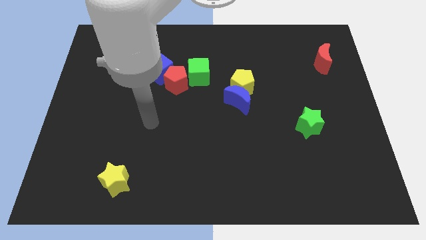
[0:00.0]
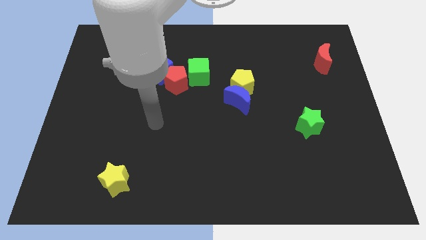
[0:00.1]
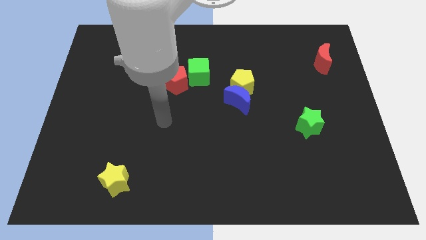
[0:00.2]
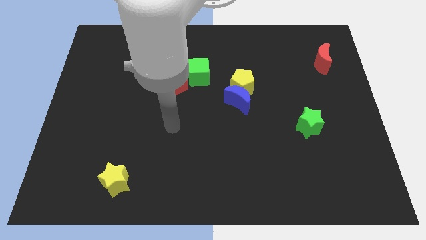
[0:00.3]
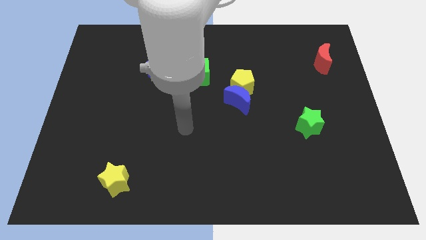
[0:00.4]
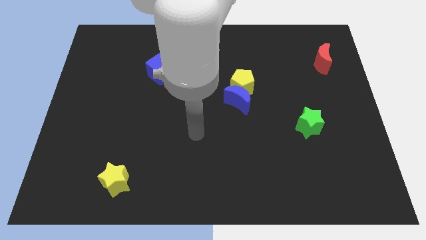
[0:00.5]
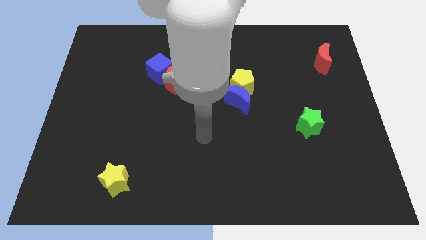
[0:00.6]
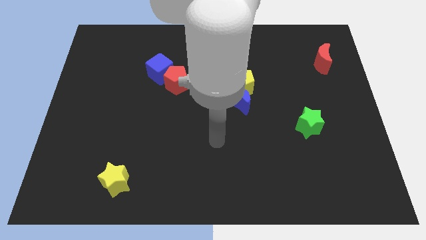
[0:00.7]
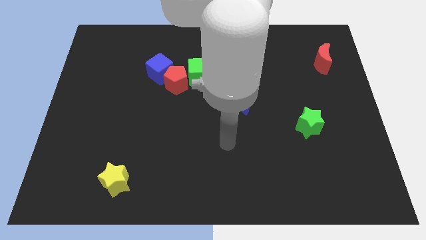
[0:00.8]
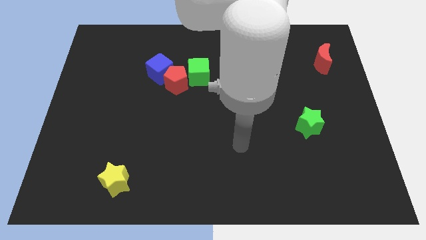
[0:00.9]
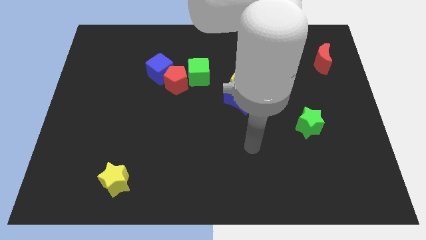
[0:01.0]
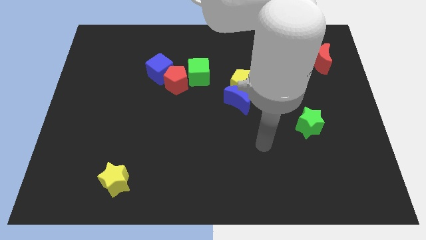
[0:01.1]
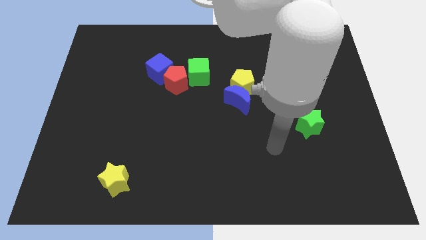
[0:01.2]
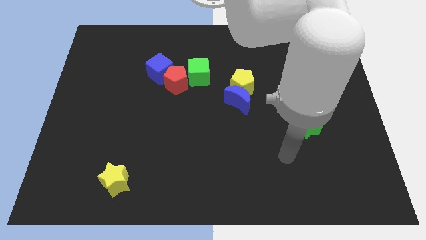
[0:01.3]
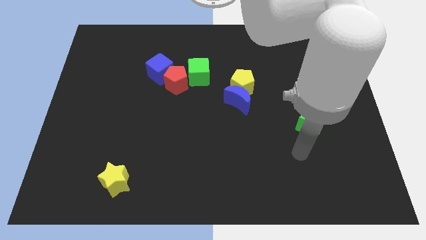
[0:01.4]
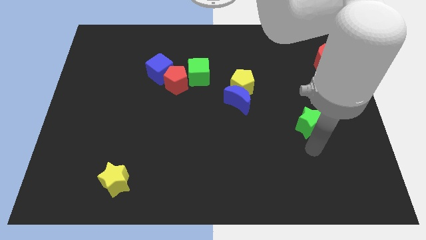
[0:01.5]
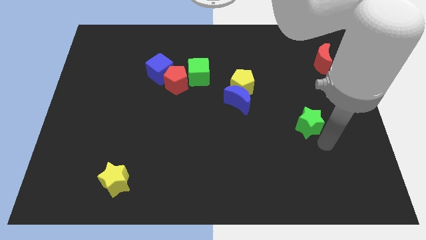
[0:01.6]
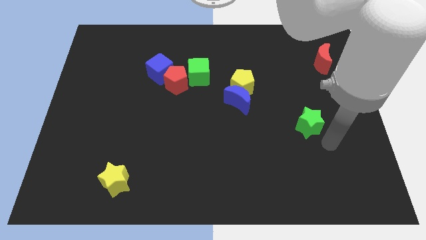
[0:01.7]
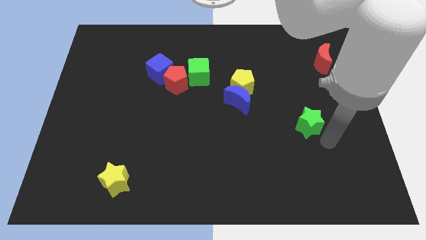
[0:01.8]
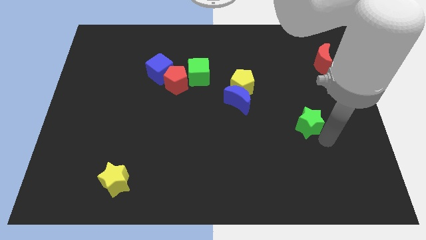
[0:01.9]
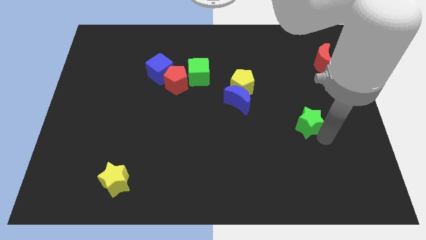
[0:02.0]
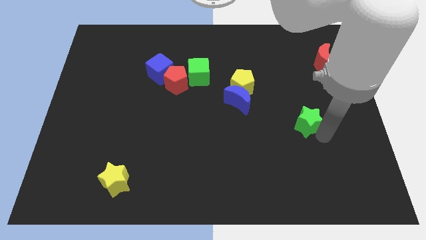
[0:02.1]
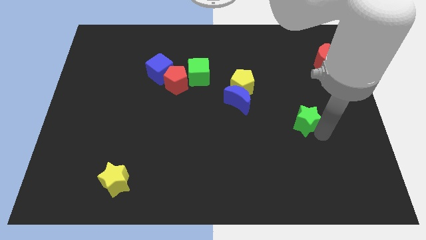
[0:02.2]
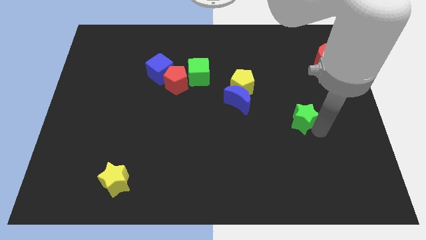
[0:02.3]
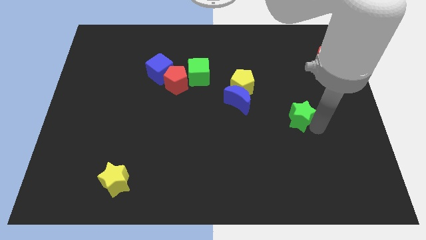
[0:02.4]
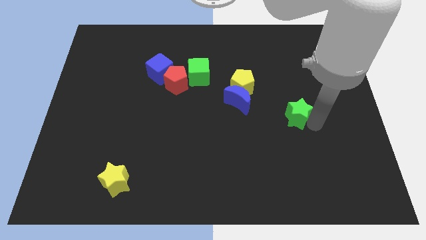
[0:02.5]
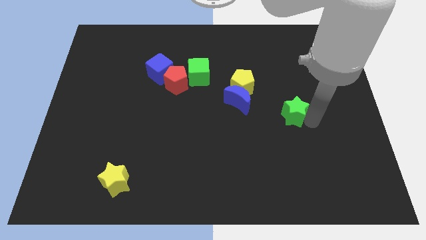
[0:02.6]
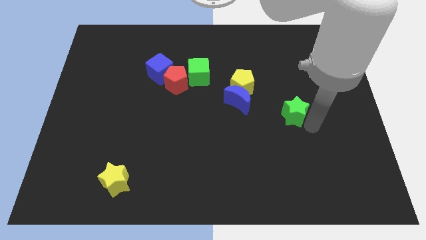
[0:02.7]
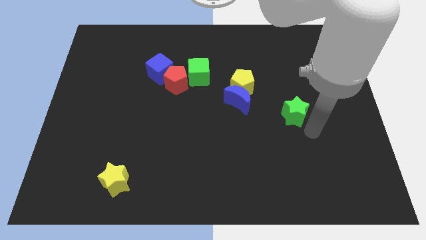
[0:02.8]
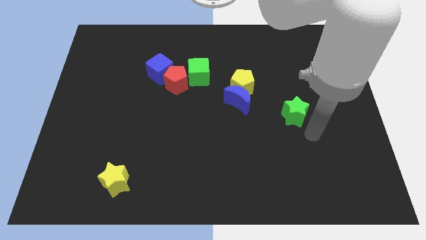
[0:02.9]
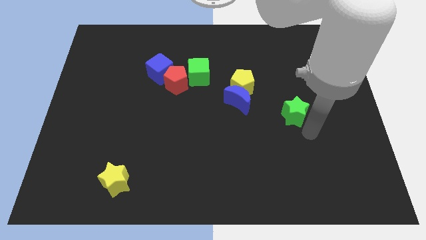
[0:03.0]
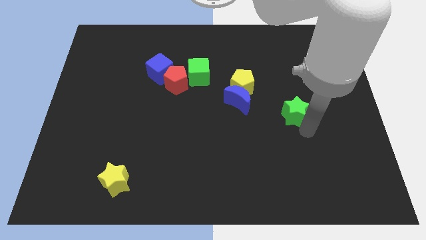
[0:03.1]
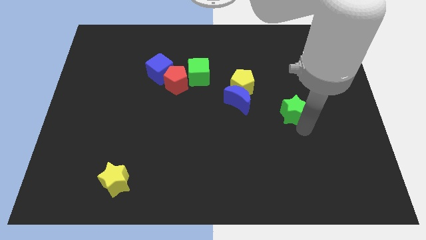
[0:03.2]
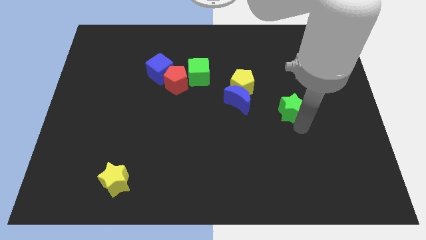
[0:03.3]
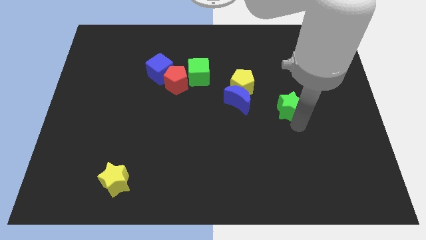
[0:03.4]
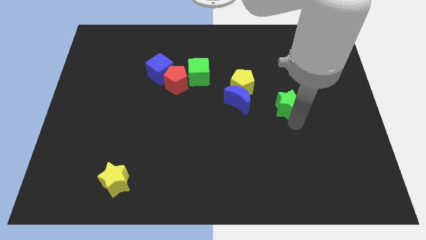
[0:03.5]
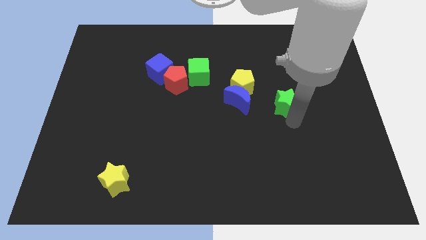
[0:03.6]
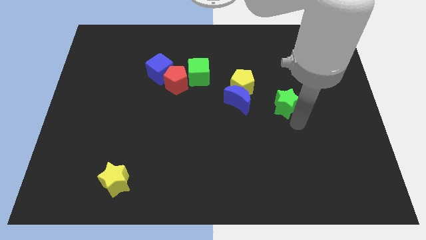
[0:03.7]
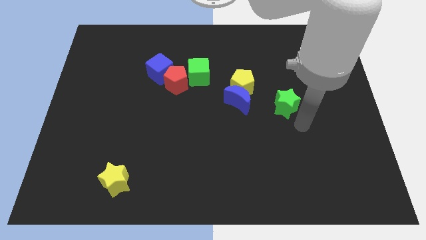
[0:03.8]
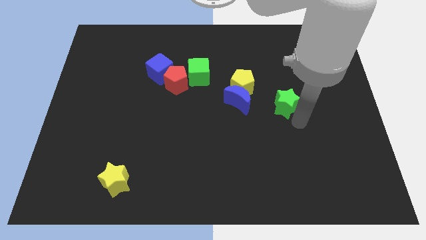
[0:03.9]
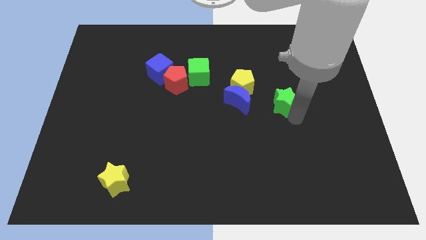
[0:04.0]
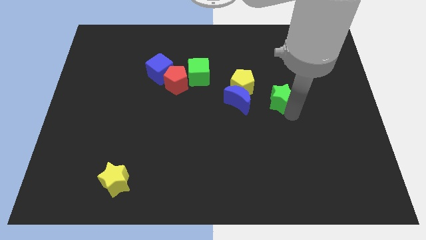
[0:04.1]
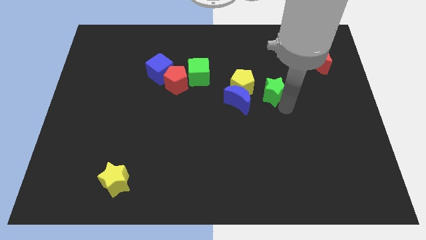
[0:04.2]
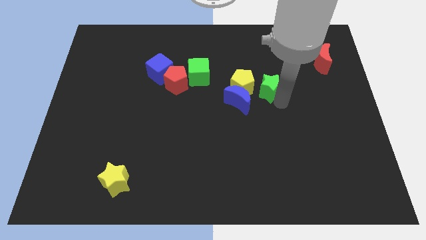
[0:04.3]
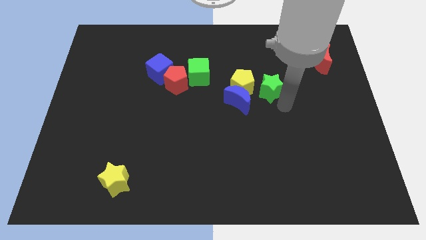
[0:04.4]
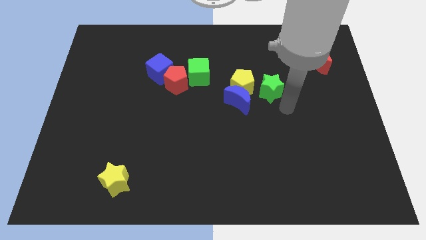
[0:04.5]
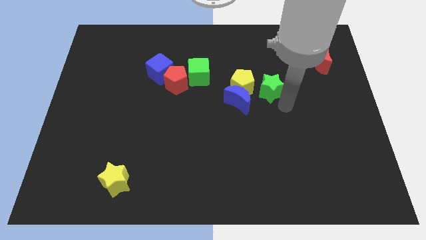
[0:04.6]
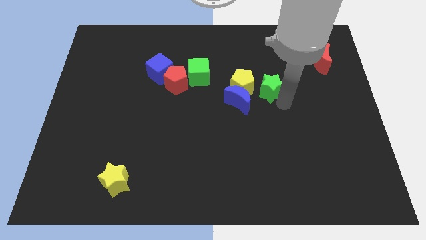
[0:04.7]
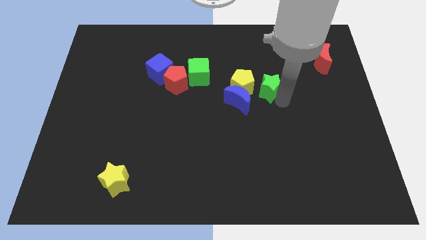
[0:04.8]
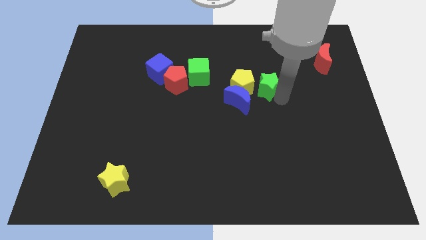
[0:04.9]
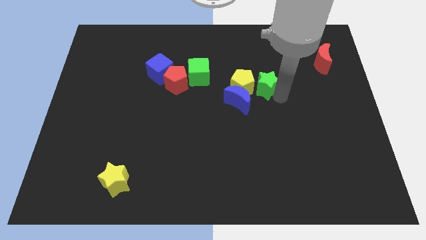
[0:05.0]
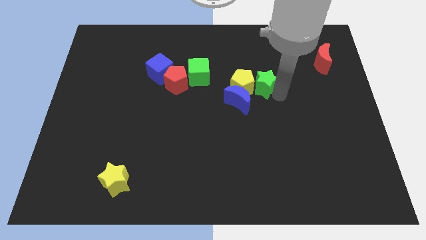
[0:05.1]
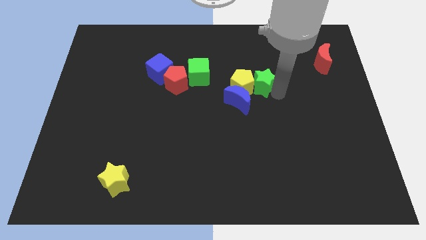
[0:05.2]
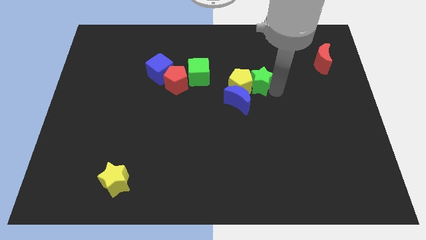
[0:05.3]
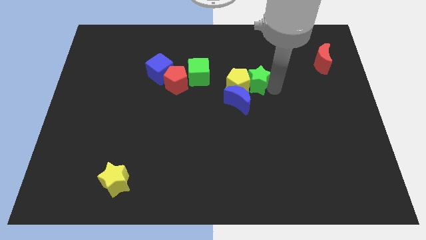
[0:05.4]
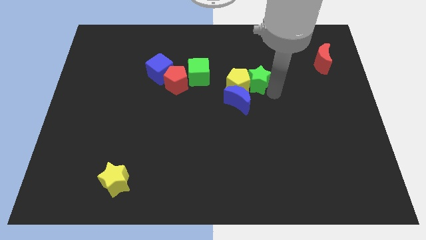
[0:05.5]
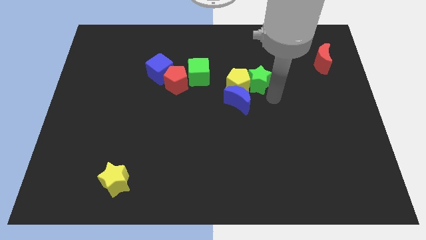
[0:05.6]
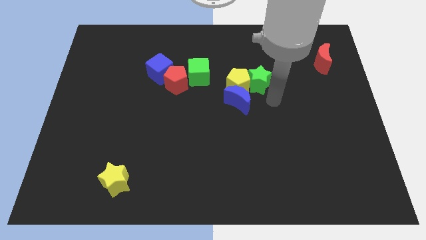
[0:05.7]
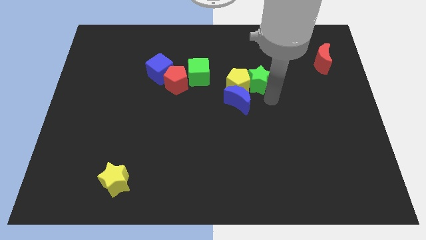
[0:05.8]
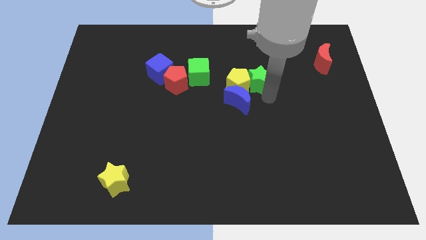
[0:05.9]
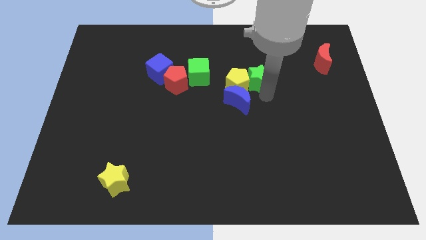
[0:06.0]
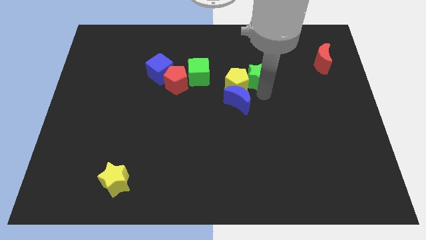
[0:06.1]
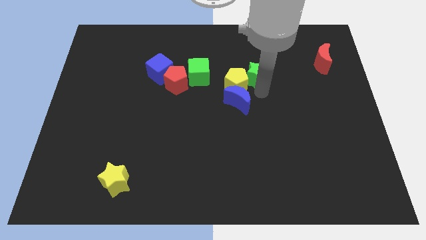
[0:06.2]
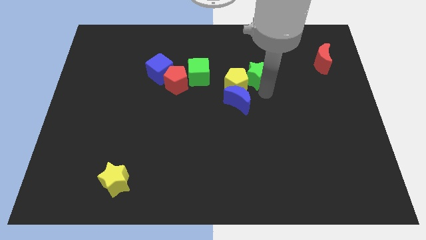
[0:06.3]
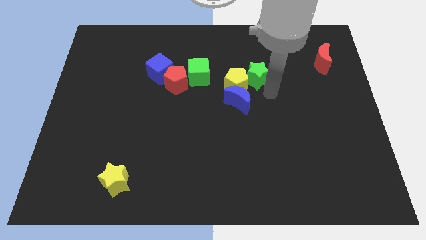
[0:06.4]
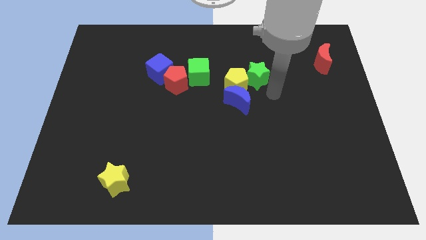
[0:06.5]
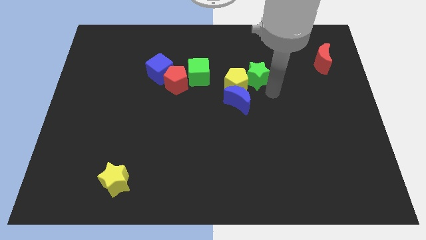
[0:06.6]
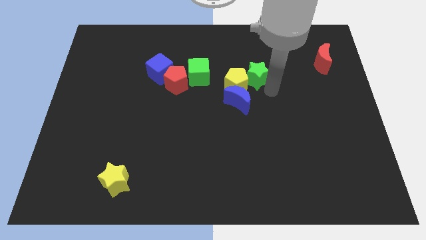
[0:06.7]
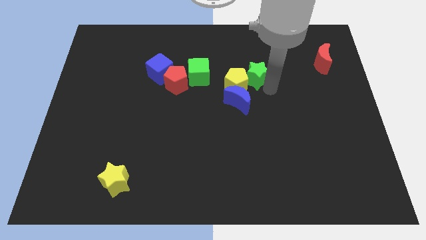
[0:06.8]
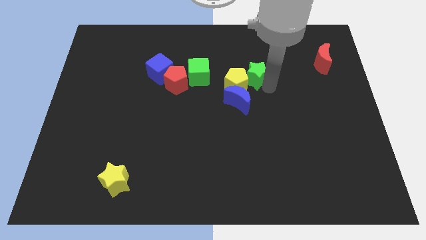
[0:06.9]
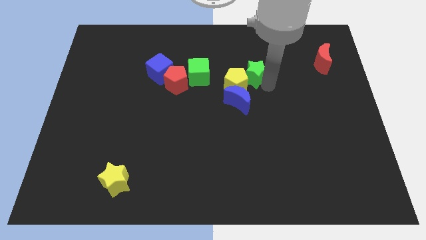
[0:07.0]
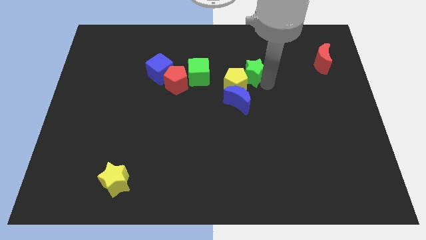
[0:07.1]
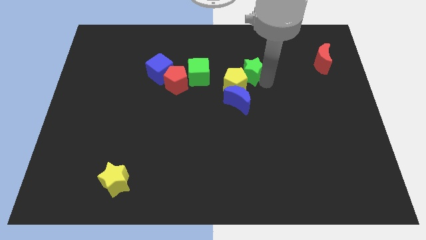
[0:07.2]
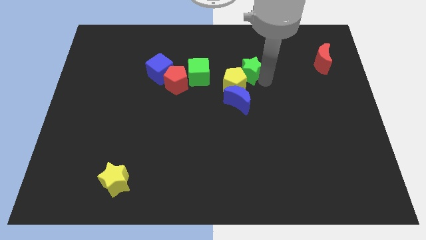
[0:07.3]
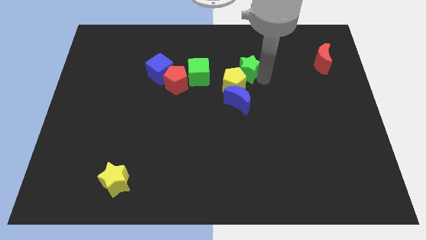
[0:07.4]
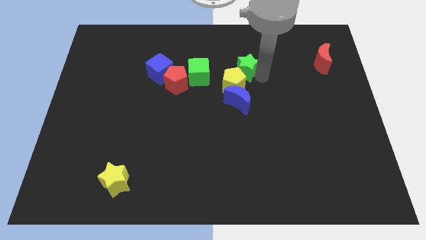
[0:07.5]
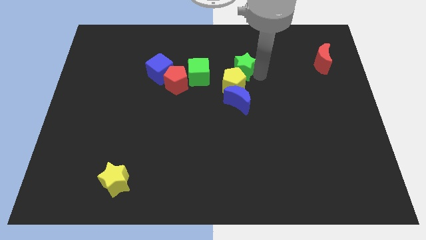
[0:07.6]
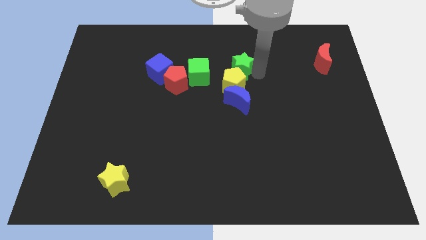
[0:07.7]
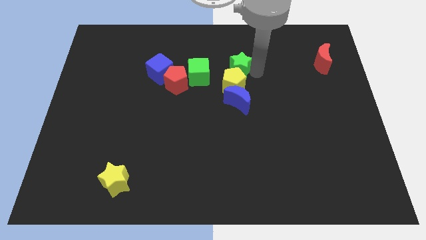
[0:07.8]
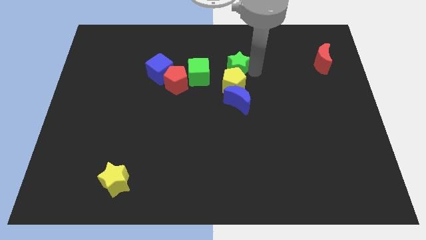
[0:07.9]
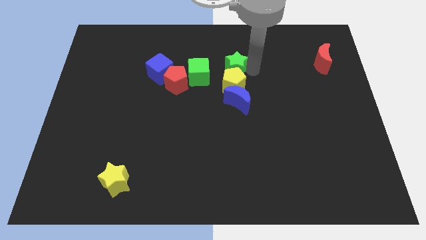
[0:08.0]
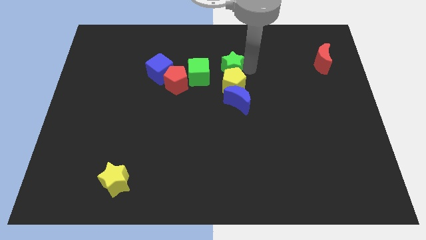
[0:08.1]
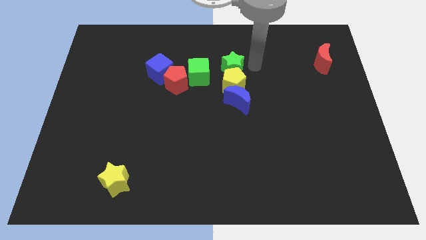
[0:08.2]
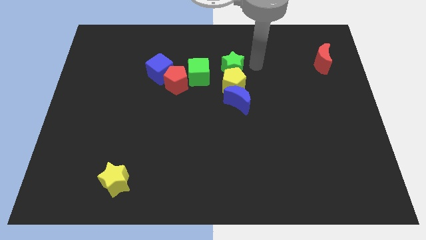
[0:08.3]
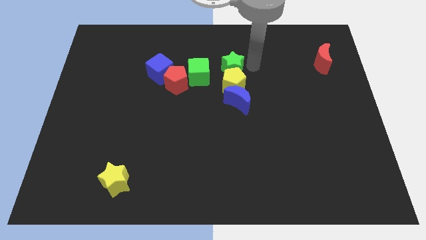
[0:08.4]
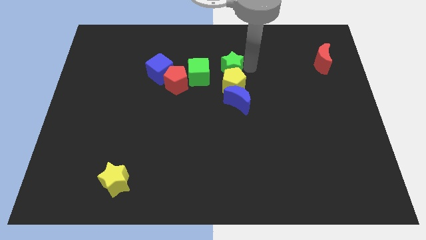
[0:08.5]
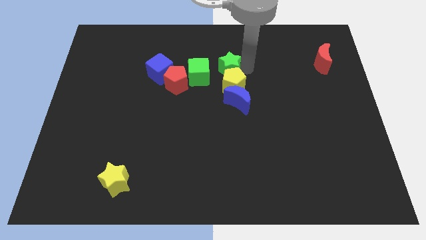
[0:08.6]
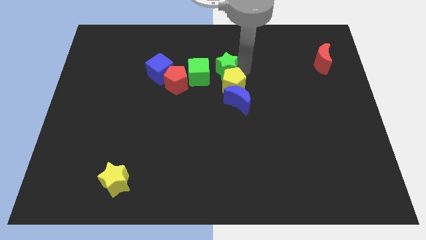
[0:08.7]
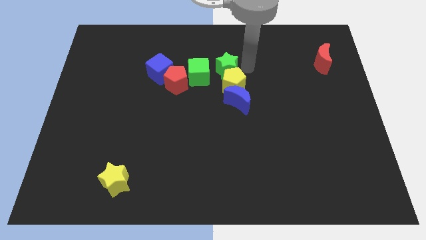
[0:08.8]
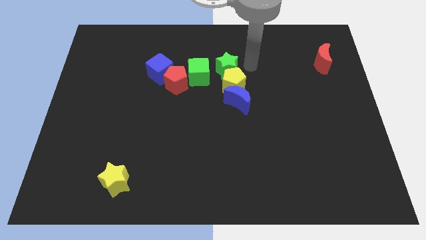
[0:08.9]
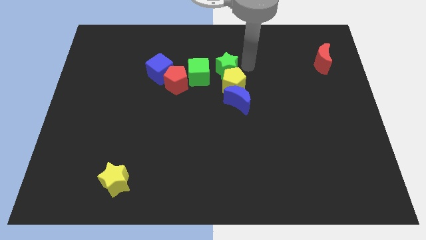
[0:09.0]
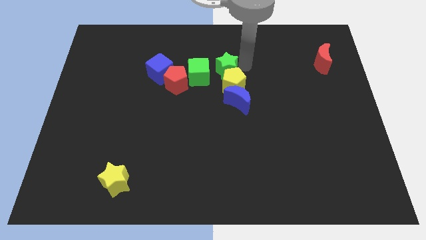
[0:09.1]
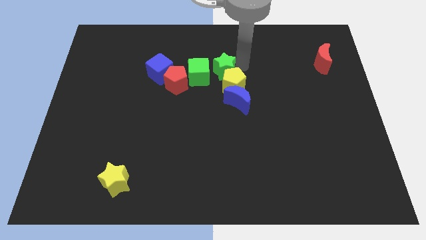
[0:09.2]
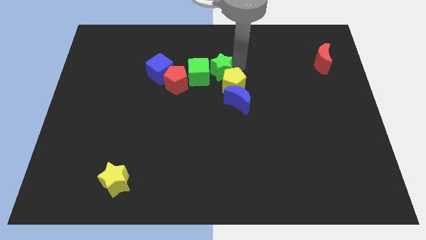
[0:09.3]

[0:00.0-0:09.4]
move the green star to the green cube
